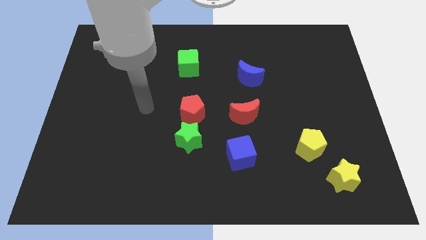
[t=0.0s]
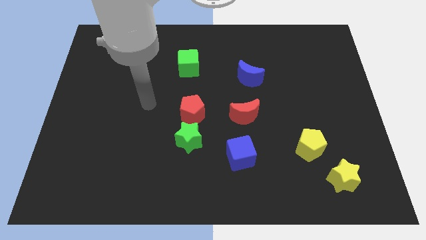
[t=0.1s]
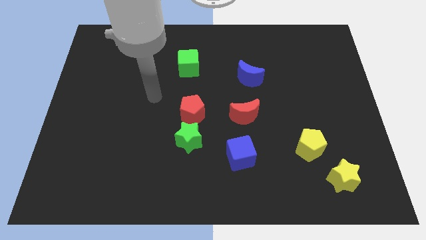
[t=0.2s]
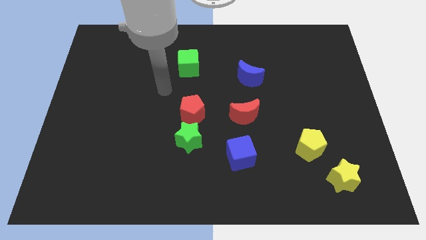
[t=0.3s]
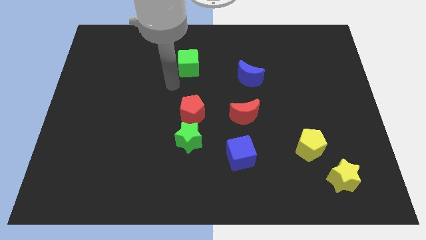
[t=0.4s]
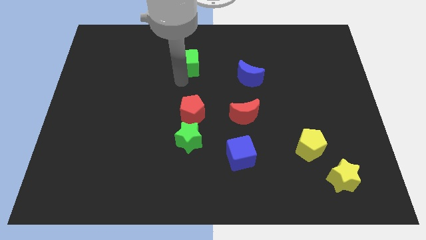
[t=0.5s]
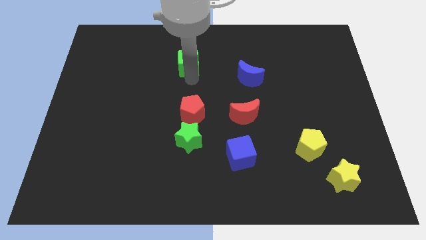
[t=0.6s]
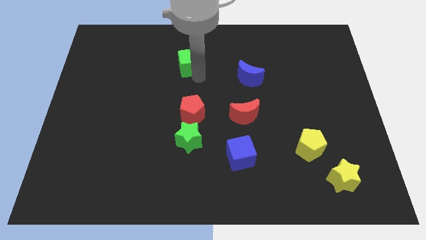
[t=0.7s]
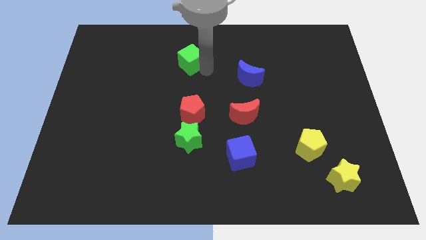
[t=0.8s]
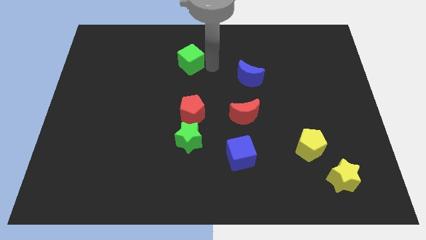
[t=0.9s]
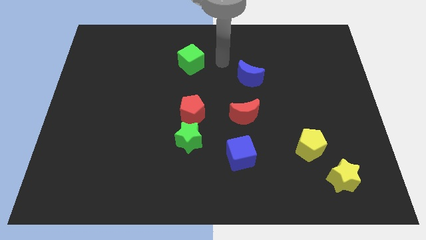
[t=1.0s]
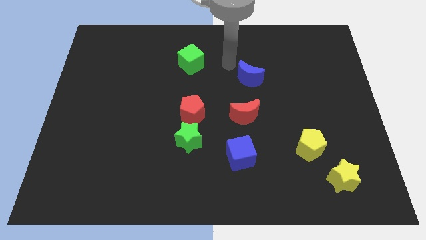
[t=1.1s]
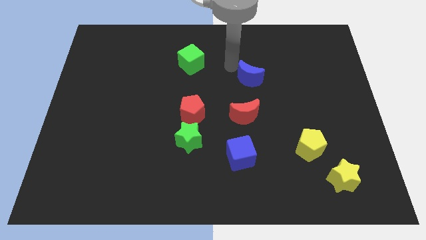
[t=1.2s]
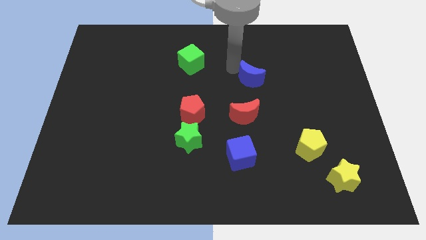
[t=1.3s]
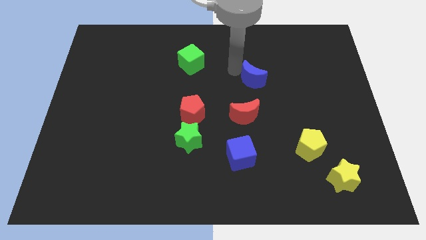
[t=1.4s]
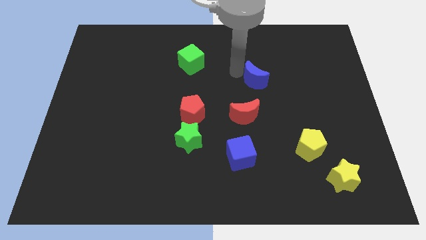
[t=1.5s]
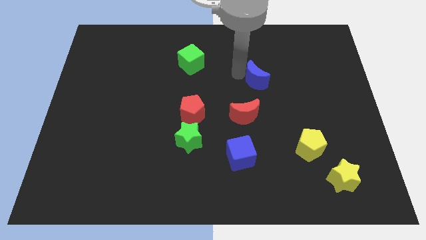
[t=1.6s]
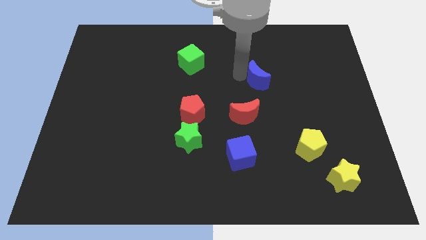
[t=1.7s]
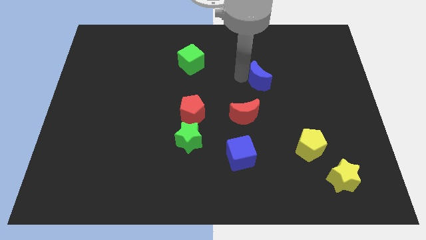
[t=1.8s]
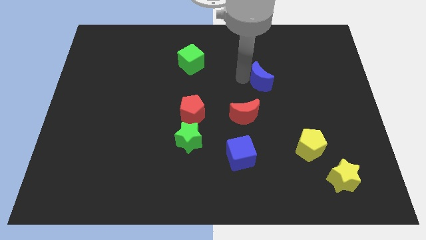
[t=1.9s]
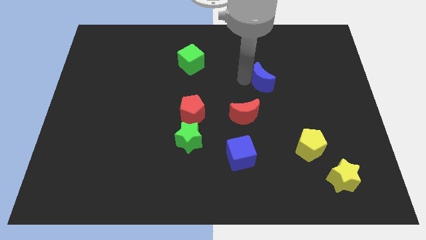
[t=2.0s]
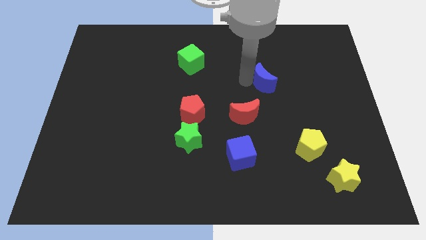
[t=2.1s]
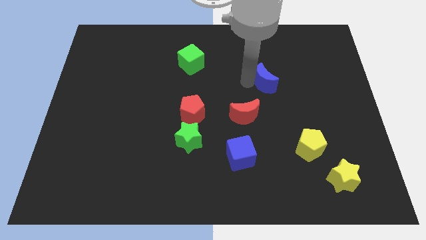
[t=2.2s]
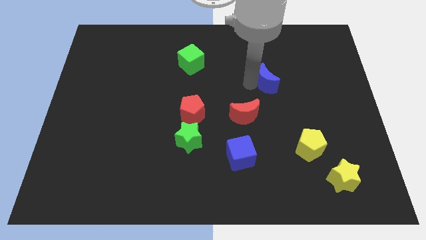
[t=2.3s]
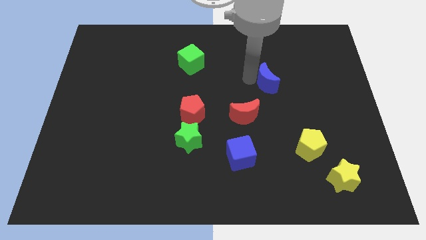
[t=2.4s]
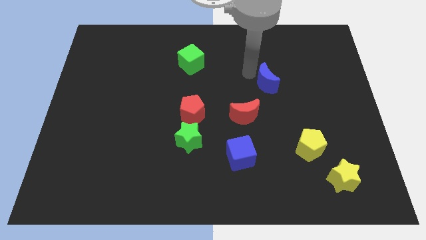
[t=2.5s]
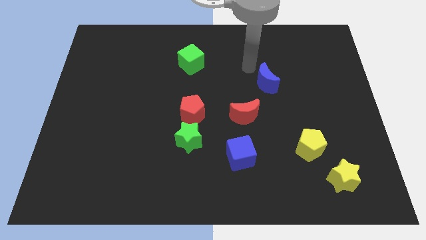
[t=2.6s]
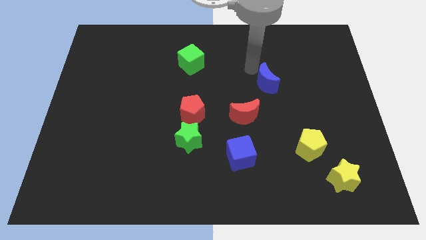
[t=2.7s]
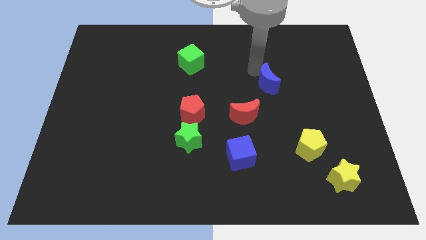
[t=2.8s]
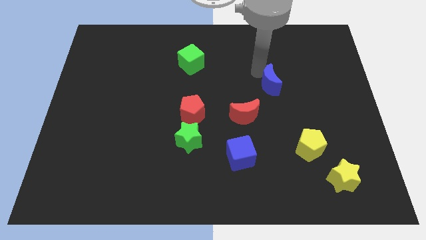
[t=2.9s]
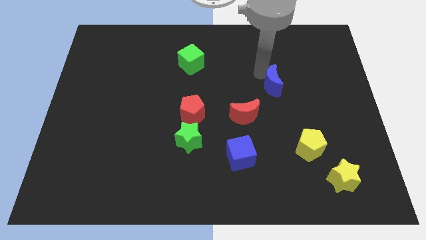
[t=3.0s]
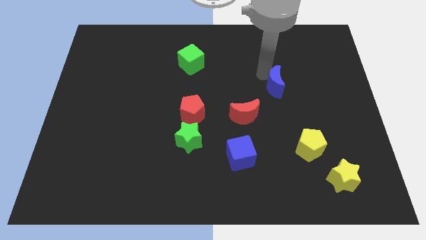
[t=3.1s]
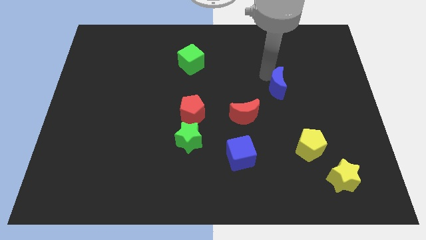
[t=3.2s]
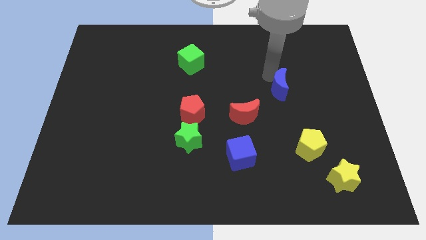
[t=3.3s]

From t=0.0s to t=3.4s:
slightly slide the blue moon diagonally downwards and to the right

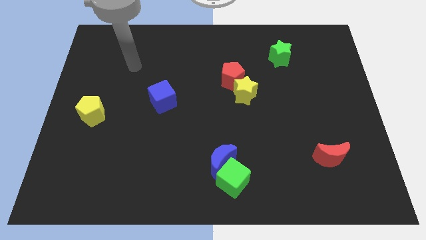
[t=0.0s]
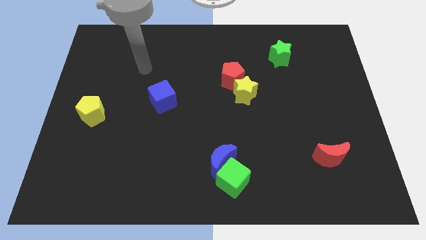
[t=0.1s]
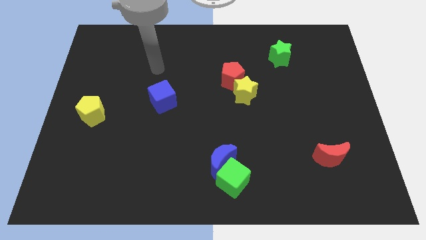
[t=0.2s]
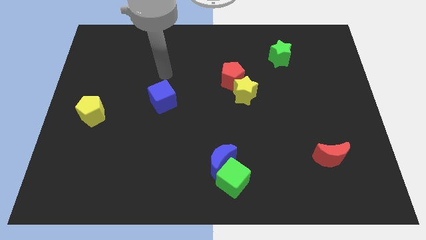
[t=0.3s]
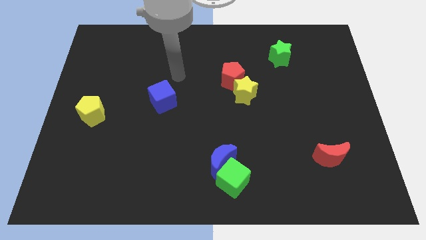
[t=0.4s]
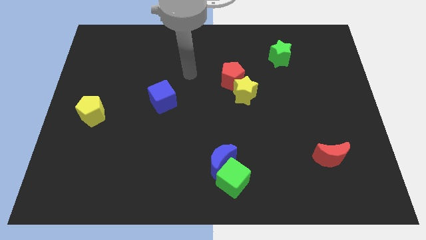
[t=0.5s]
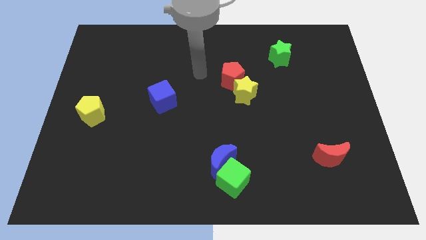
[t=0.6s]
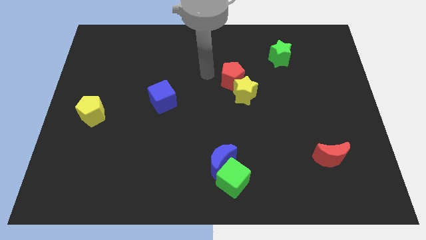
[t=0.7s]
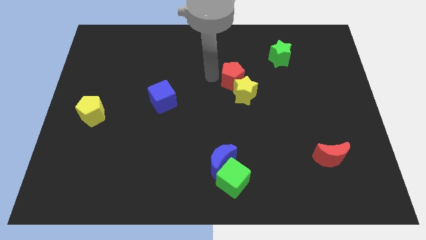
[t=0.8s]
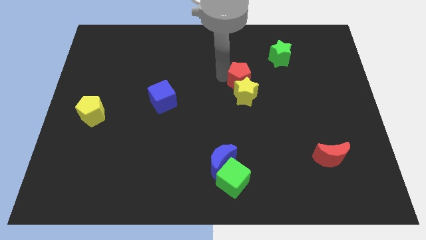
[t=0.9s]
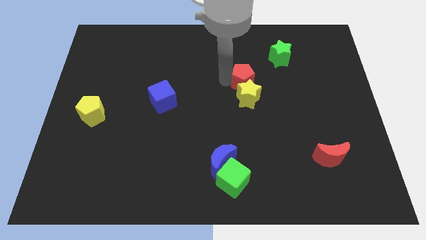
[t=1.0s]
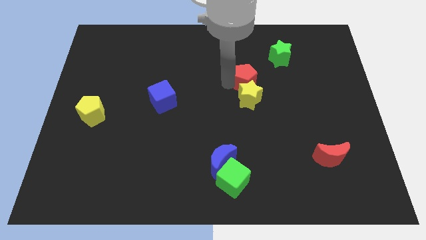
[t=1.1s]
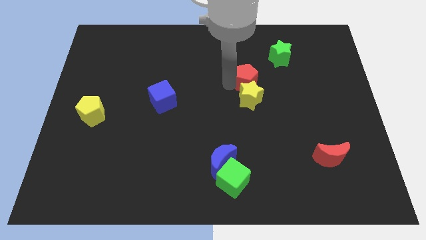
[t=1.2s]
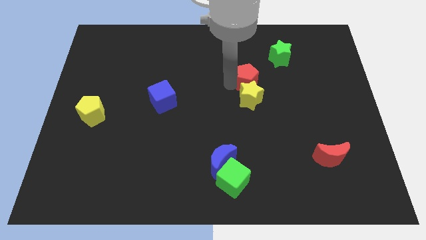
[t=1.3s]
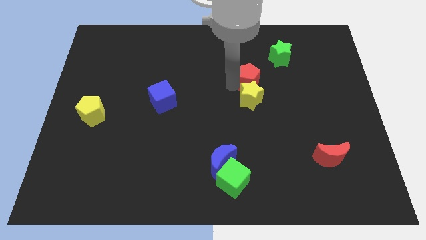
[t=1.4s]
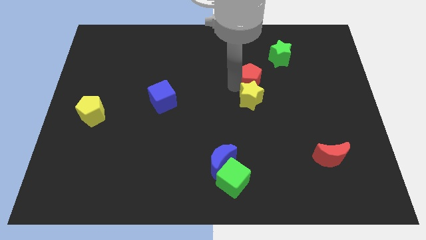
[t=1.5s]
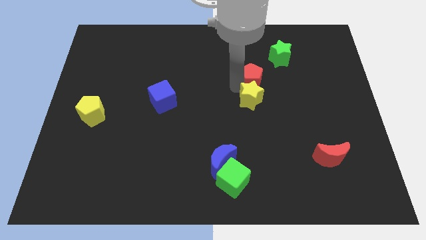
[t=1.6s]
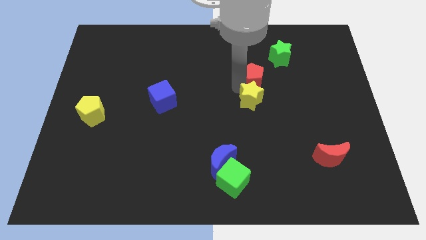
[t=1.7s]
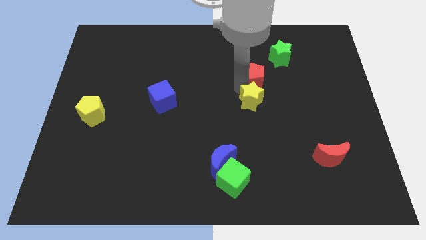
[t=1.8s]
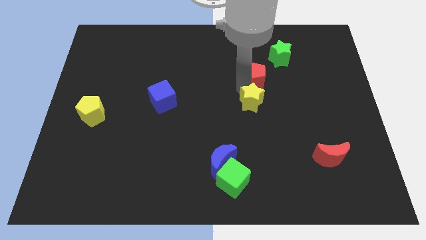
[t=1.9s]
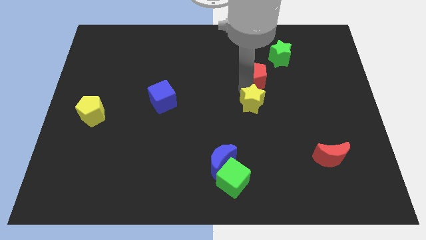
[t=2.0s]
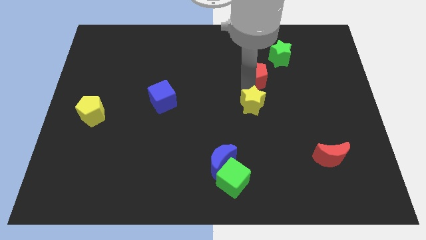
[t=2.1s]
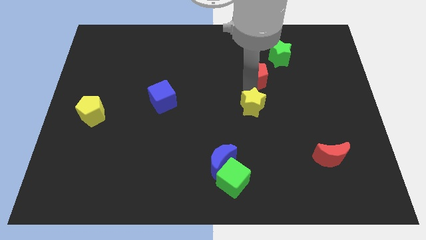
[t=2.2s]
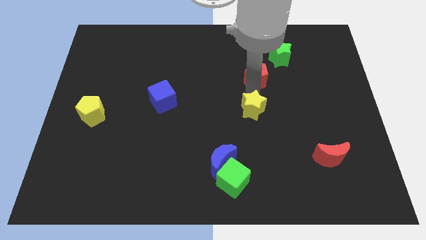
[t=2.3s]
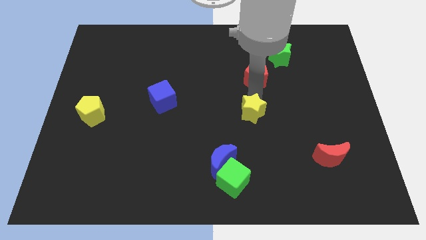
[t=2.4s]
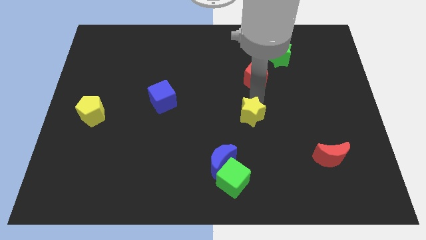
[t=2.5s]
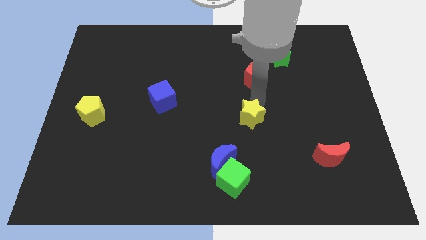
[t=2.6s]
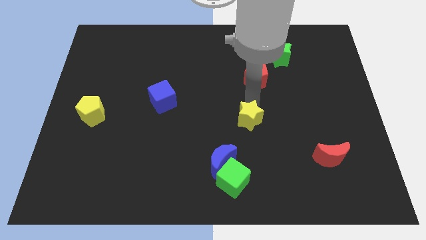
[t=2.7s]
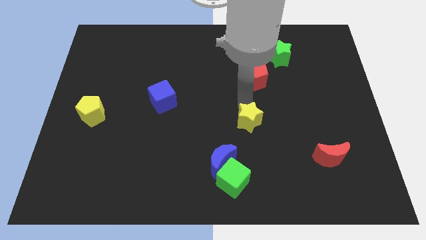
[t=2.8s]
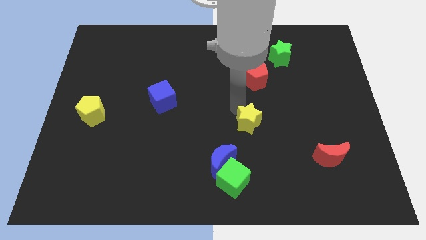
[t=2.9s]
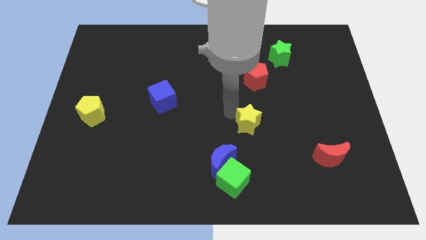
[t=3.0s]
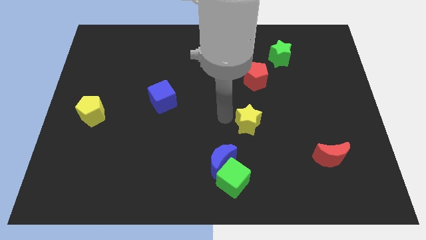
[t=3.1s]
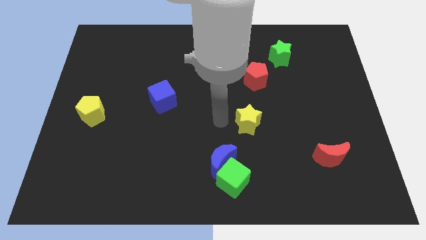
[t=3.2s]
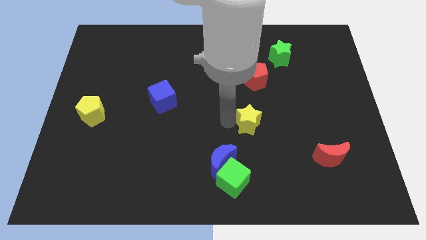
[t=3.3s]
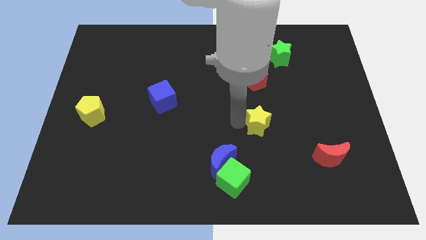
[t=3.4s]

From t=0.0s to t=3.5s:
slightly push the yellow star down and to the right diagonally

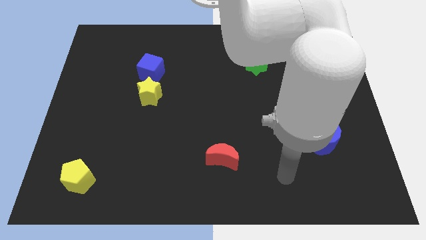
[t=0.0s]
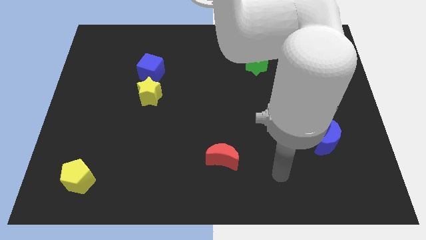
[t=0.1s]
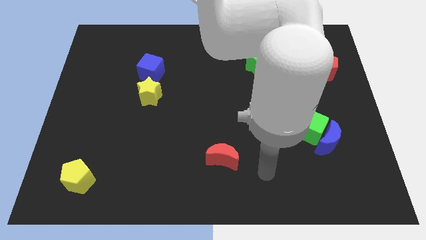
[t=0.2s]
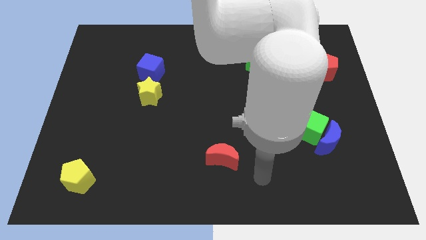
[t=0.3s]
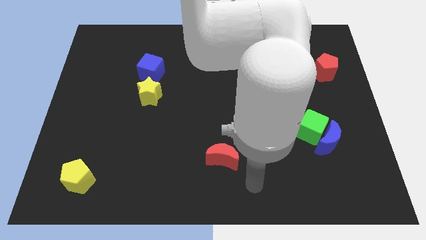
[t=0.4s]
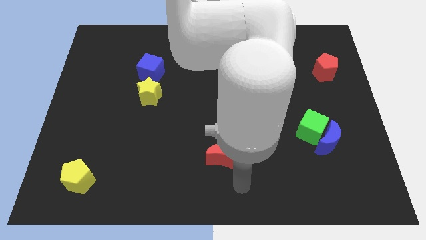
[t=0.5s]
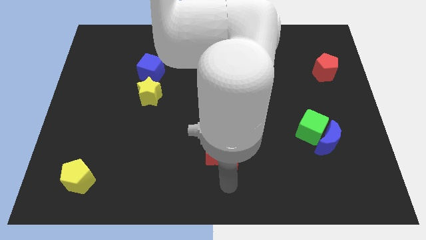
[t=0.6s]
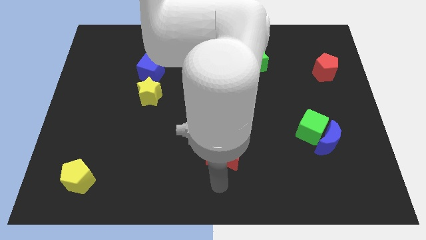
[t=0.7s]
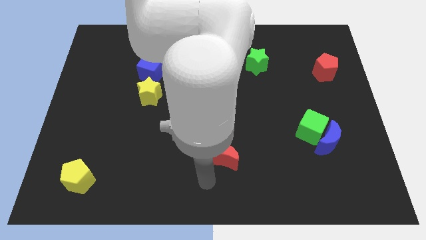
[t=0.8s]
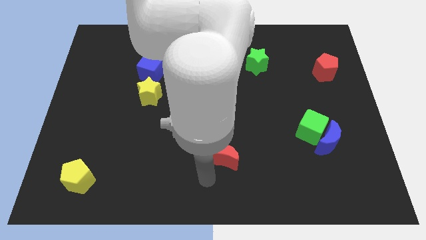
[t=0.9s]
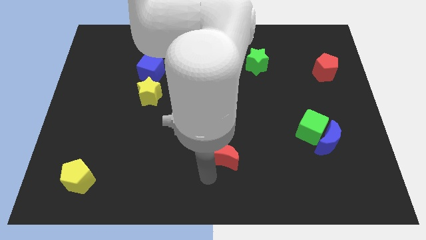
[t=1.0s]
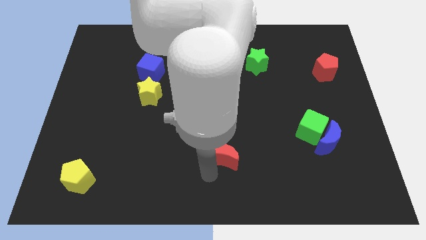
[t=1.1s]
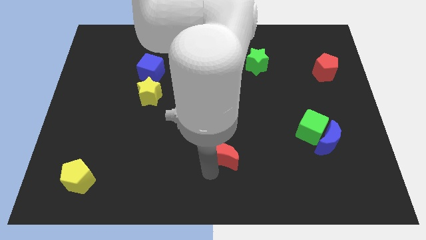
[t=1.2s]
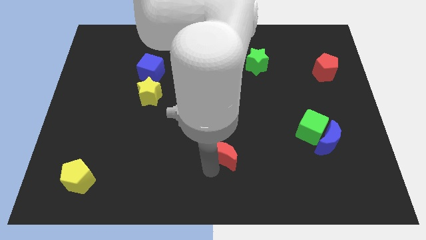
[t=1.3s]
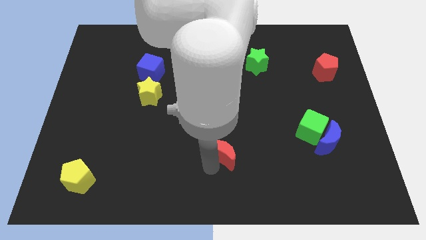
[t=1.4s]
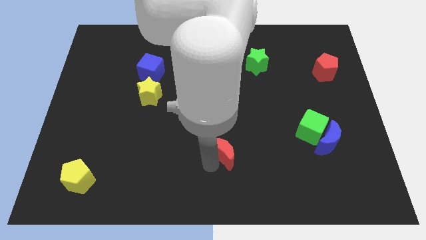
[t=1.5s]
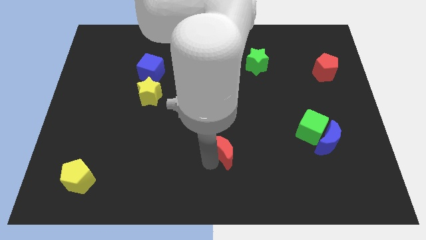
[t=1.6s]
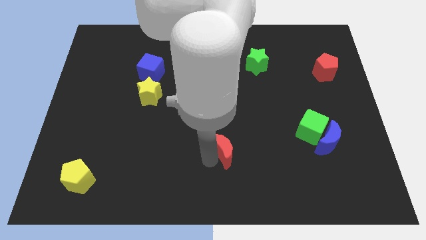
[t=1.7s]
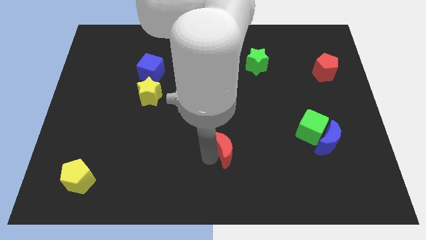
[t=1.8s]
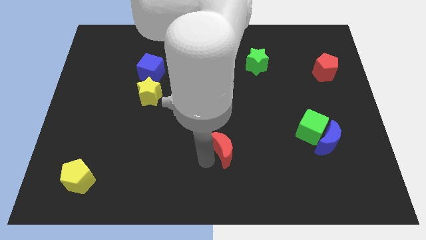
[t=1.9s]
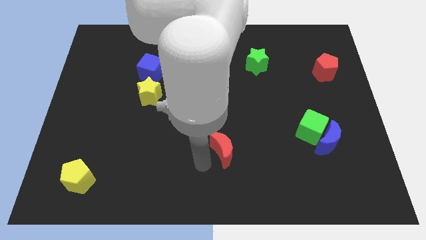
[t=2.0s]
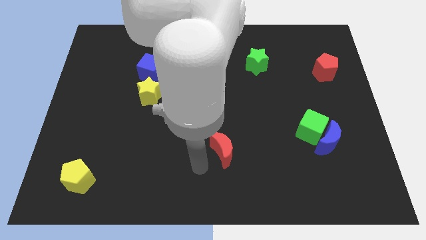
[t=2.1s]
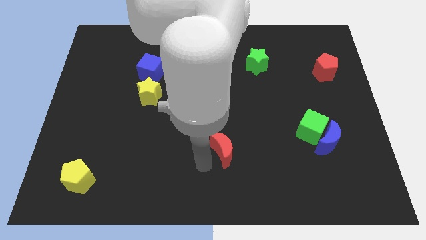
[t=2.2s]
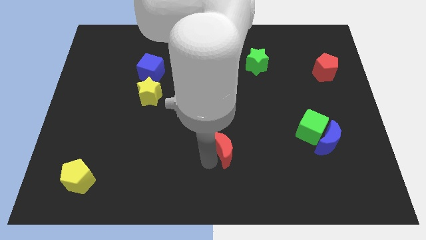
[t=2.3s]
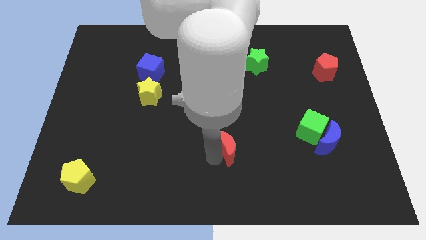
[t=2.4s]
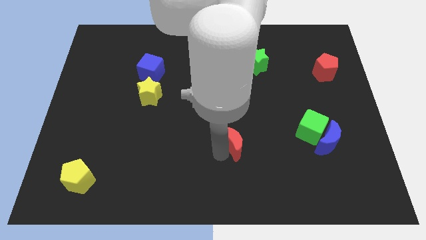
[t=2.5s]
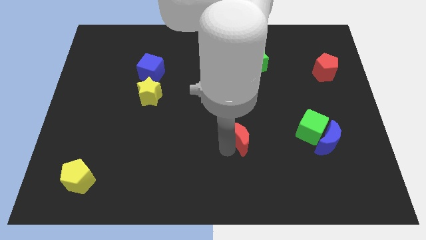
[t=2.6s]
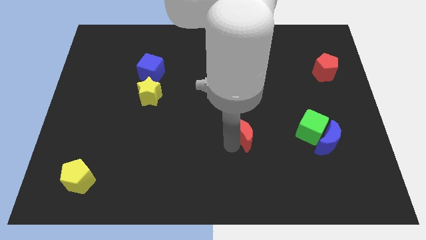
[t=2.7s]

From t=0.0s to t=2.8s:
slightly slide the red moon up and to the right diagonally
